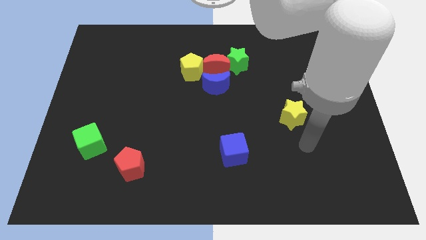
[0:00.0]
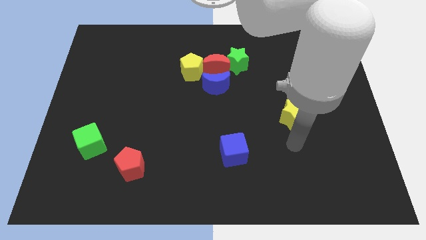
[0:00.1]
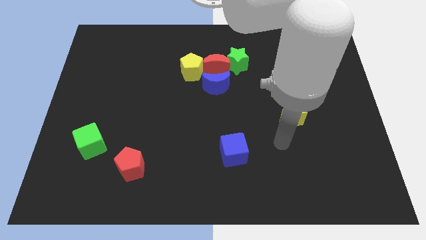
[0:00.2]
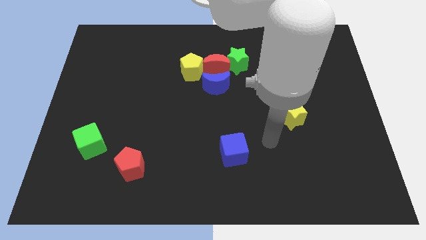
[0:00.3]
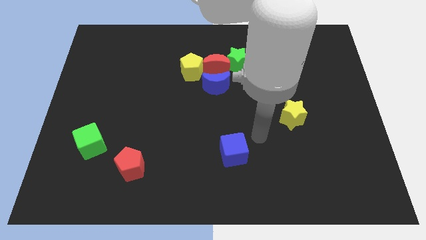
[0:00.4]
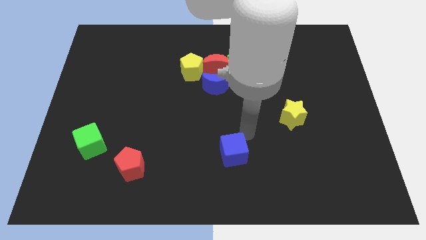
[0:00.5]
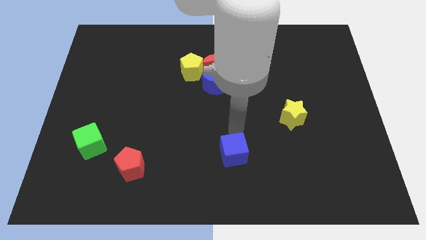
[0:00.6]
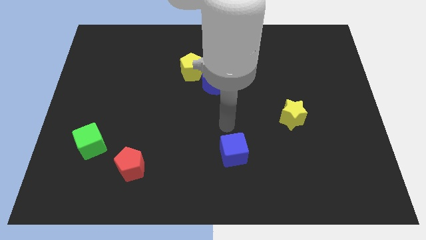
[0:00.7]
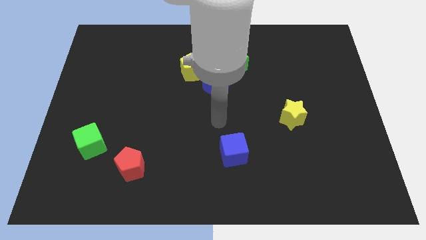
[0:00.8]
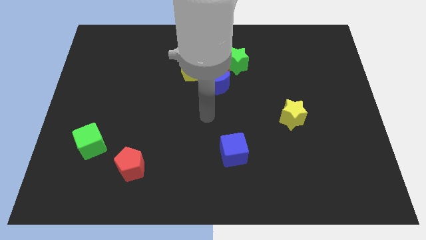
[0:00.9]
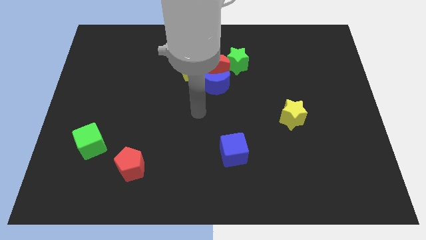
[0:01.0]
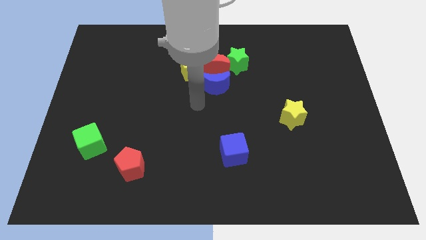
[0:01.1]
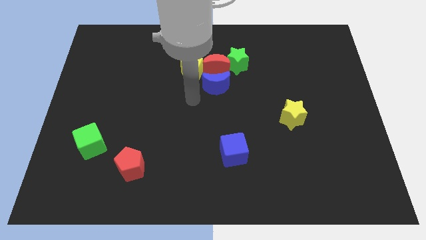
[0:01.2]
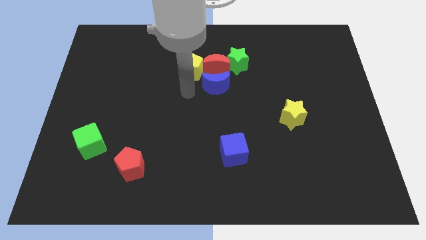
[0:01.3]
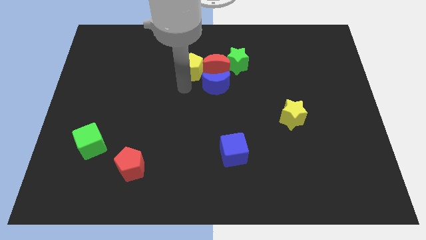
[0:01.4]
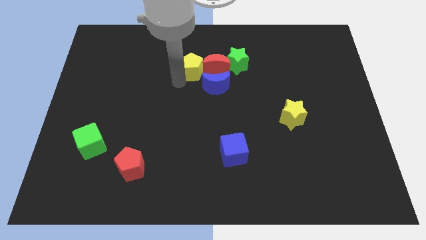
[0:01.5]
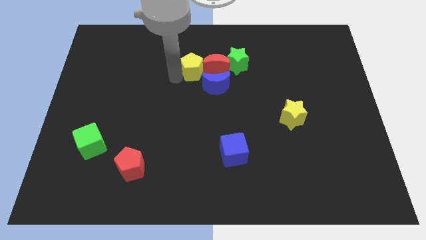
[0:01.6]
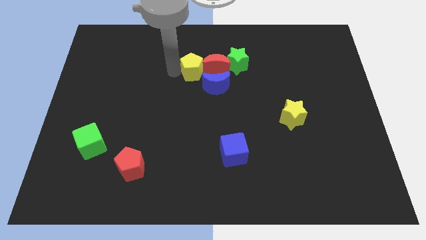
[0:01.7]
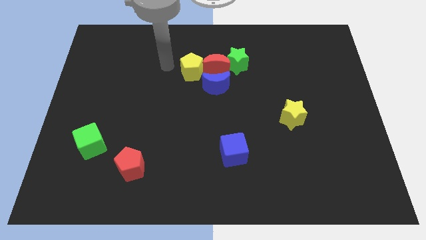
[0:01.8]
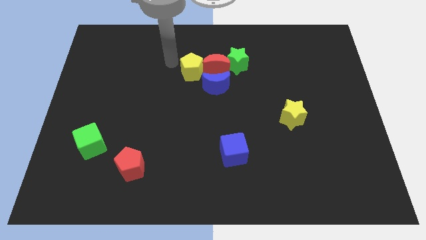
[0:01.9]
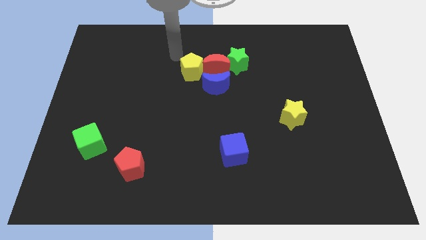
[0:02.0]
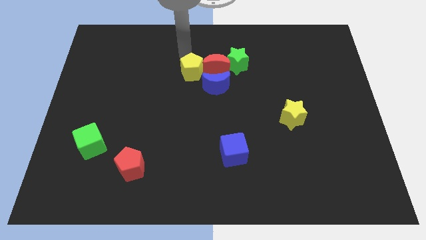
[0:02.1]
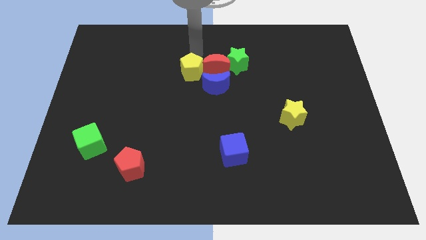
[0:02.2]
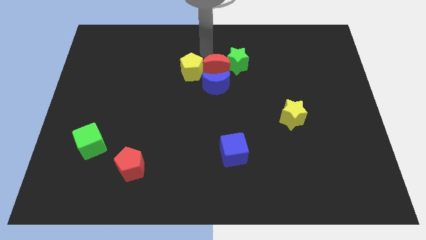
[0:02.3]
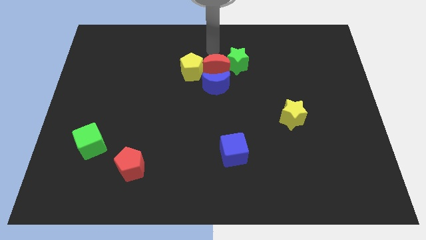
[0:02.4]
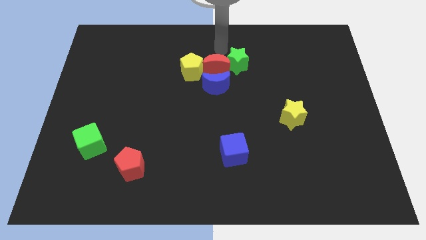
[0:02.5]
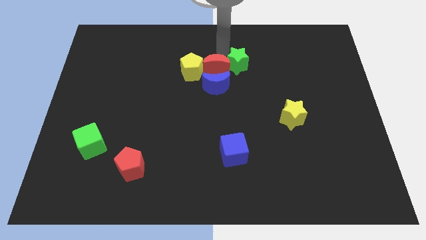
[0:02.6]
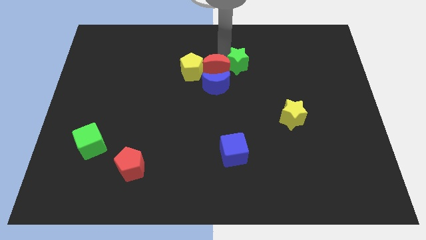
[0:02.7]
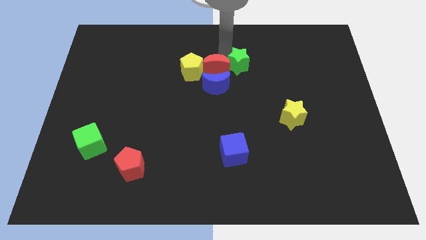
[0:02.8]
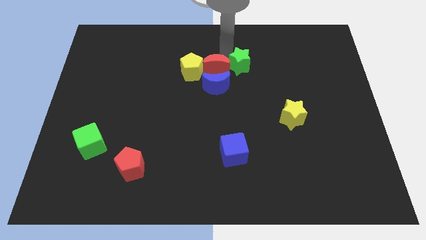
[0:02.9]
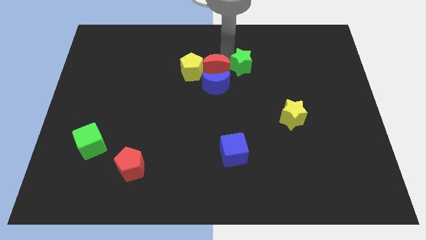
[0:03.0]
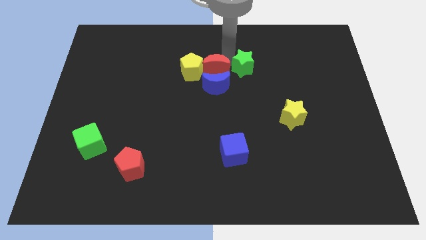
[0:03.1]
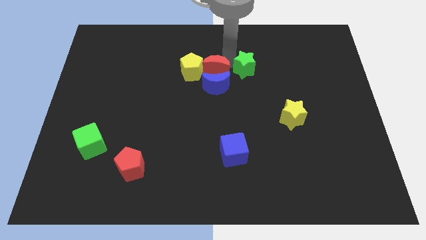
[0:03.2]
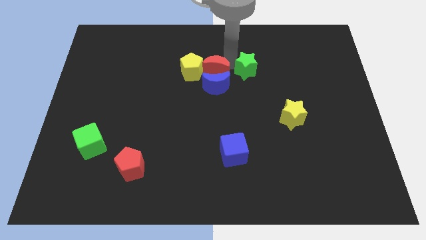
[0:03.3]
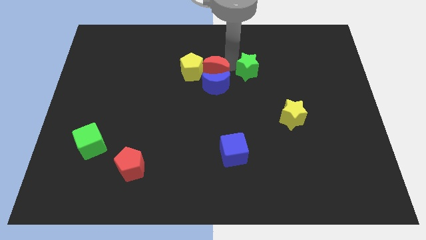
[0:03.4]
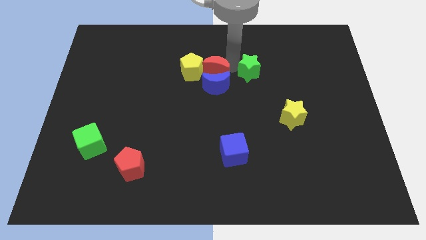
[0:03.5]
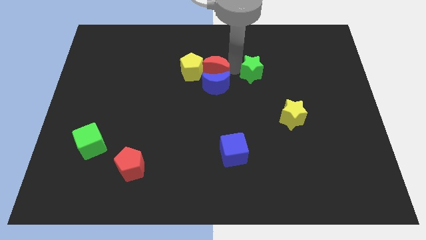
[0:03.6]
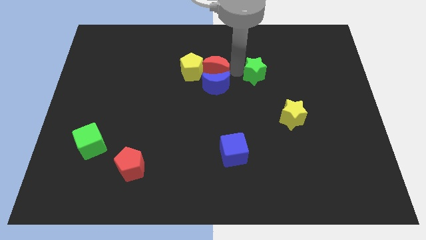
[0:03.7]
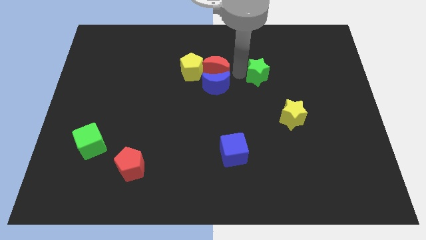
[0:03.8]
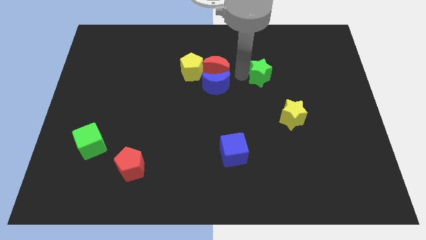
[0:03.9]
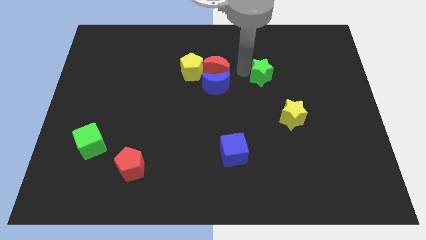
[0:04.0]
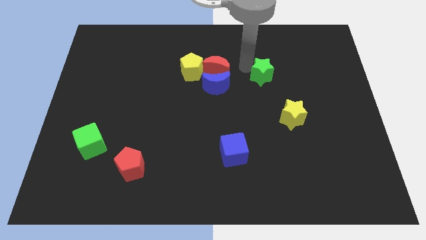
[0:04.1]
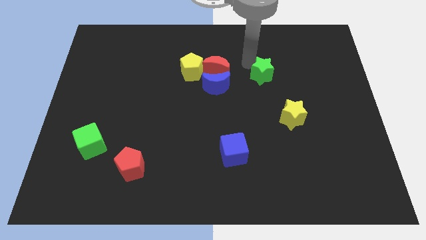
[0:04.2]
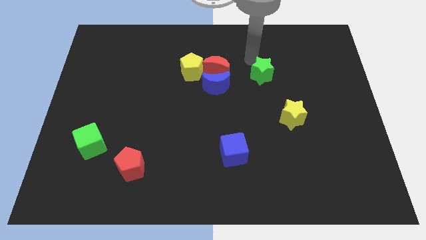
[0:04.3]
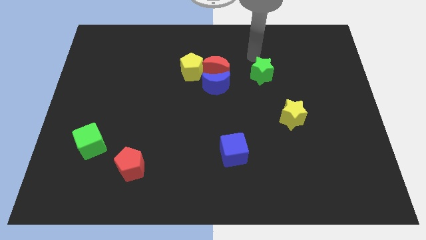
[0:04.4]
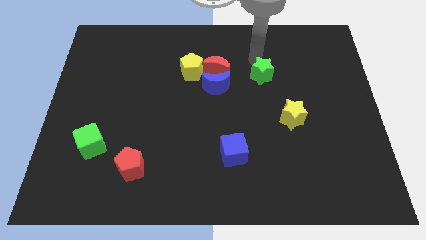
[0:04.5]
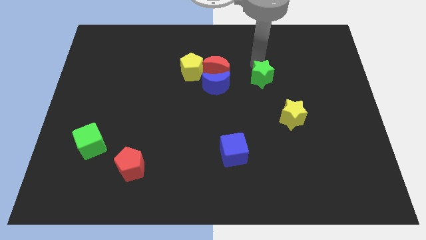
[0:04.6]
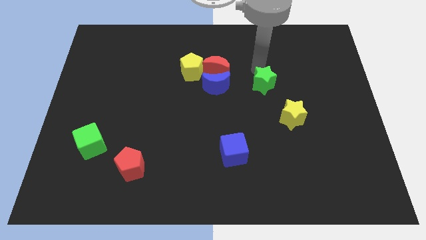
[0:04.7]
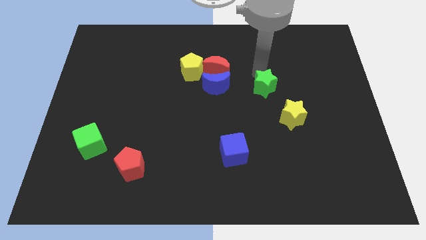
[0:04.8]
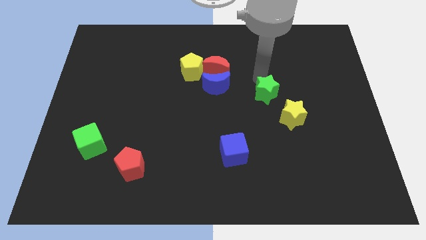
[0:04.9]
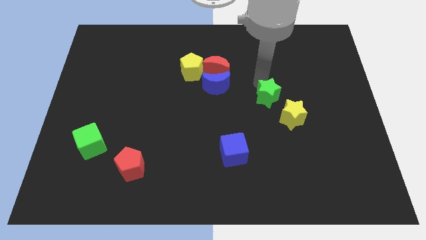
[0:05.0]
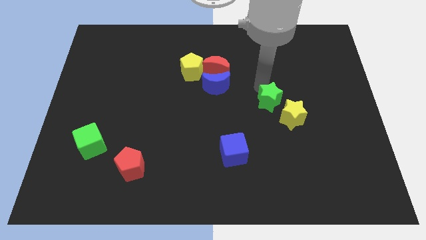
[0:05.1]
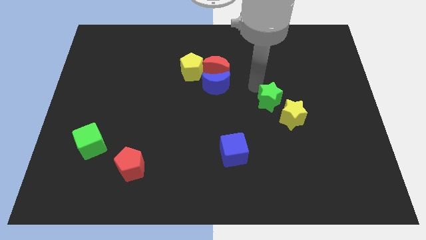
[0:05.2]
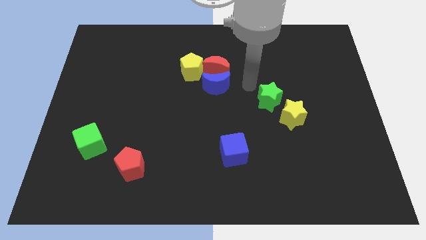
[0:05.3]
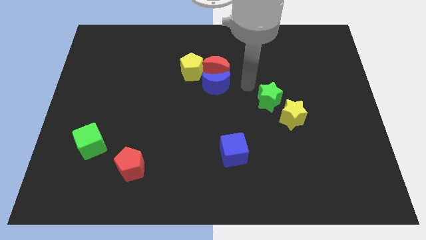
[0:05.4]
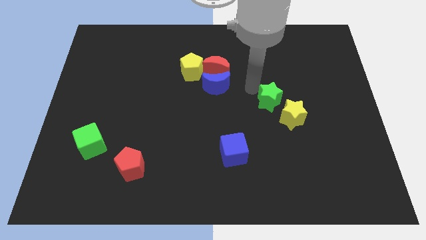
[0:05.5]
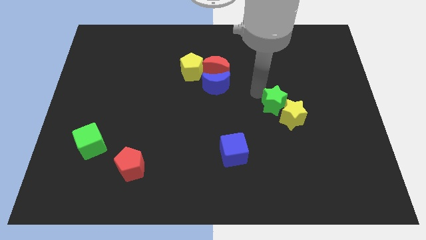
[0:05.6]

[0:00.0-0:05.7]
move the green star towards the yellow star

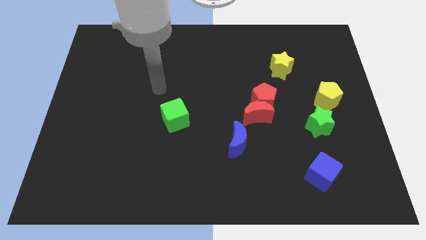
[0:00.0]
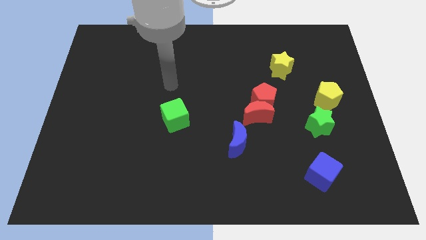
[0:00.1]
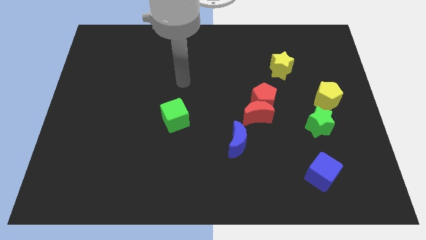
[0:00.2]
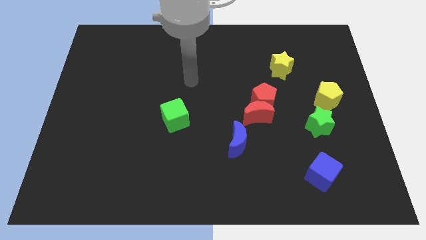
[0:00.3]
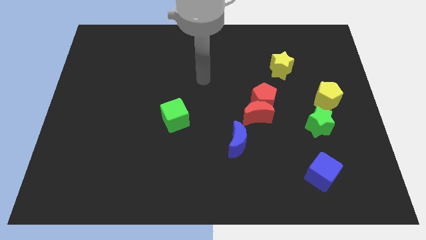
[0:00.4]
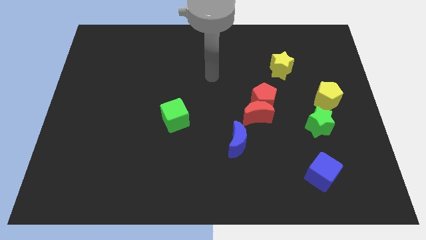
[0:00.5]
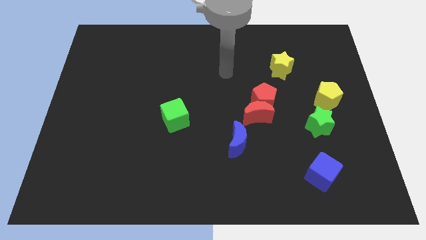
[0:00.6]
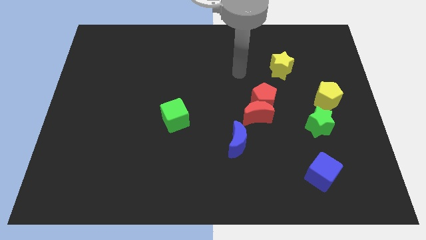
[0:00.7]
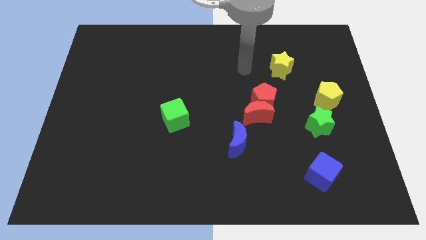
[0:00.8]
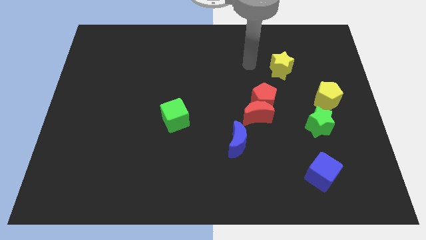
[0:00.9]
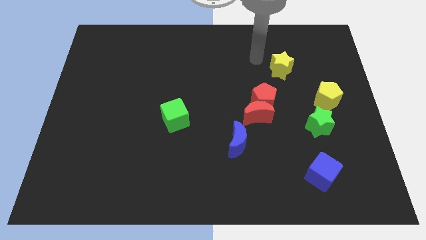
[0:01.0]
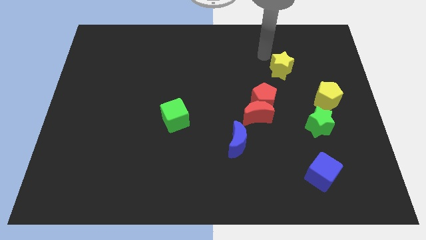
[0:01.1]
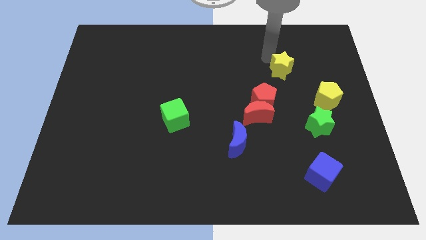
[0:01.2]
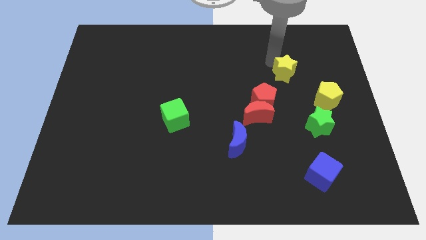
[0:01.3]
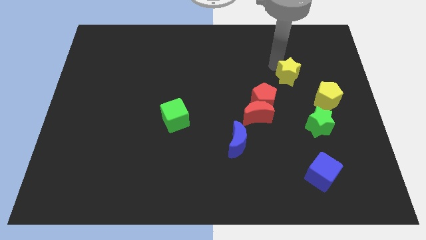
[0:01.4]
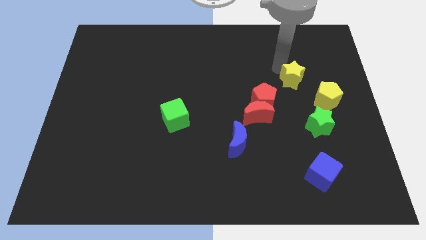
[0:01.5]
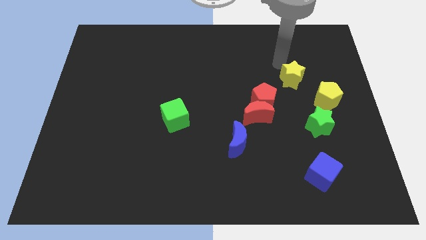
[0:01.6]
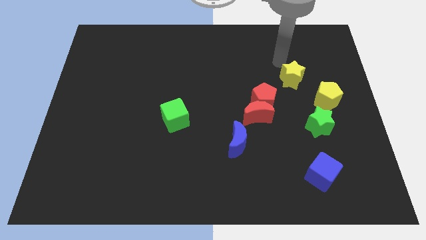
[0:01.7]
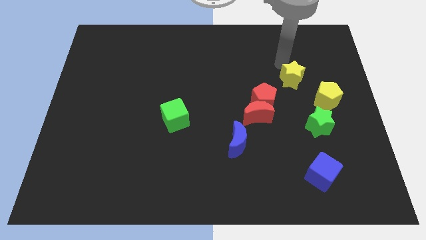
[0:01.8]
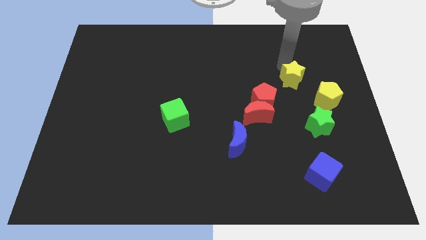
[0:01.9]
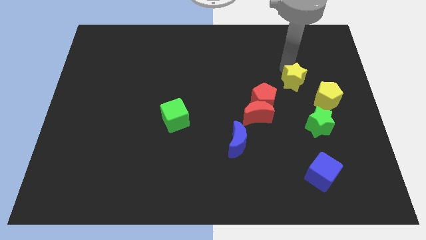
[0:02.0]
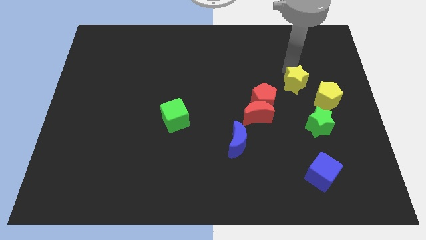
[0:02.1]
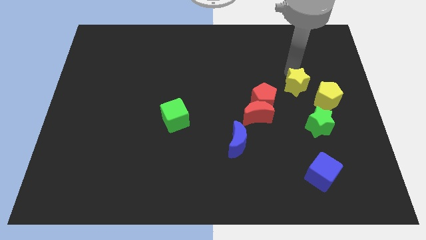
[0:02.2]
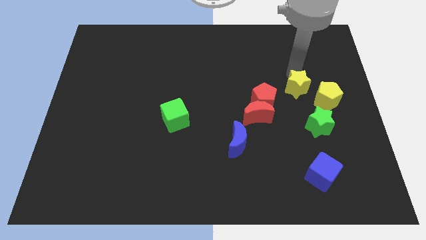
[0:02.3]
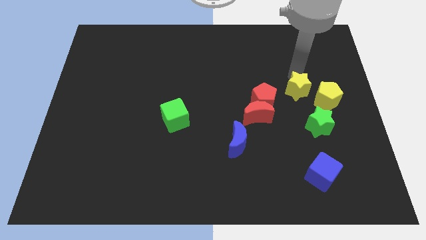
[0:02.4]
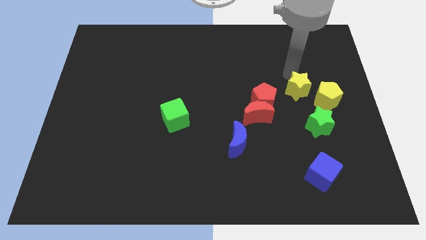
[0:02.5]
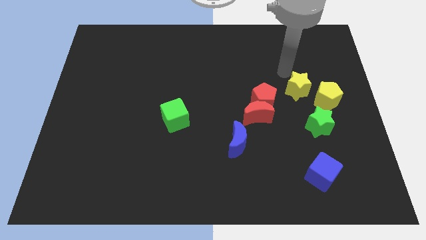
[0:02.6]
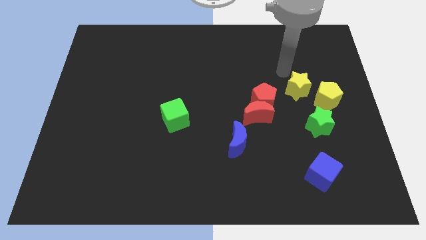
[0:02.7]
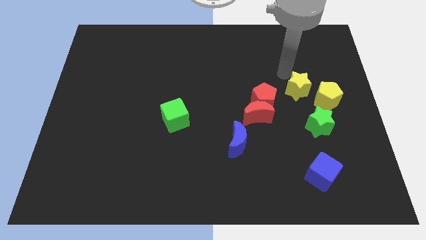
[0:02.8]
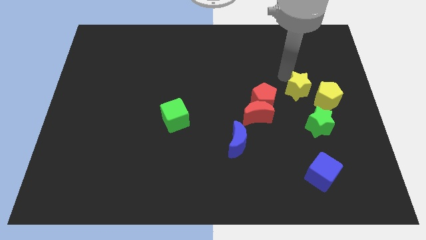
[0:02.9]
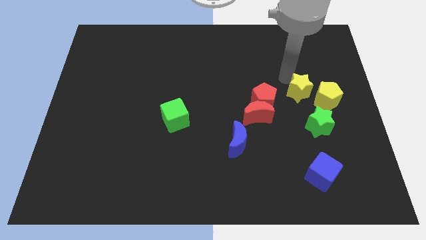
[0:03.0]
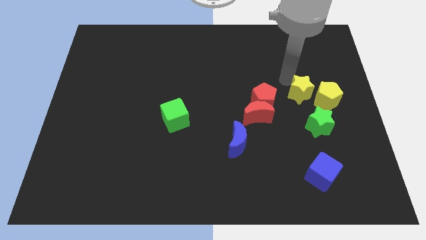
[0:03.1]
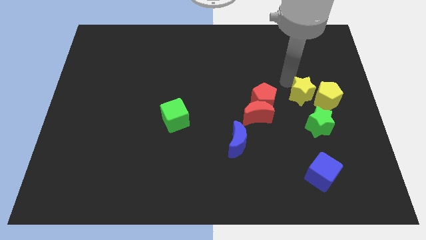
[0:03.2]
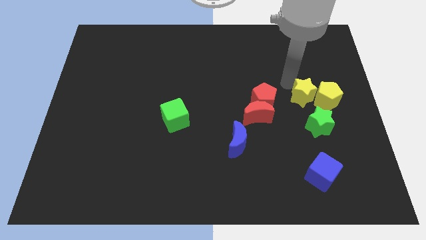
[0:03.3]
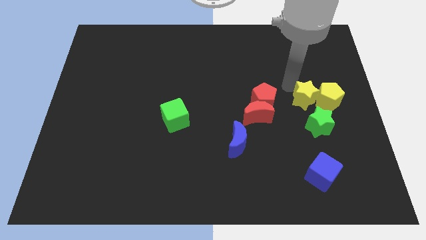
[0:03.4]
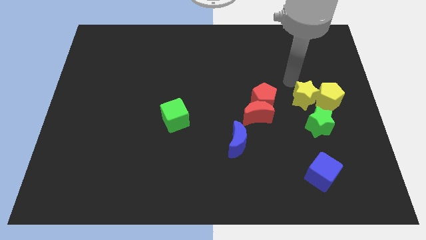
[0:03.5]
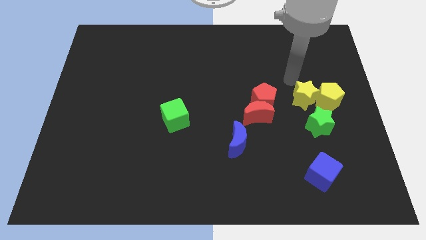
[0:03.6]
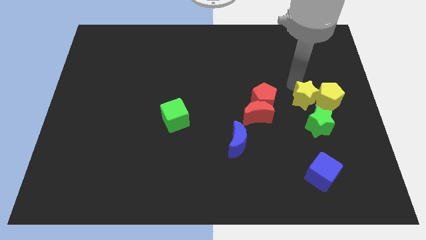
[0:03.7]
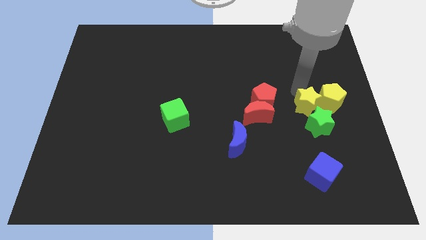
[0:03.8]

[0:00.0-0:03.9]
slide the yellow star close to the green star
